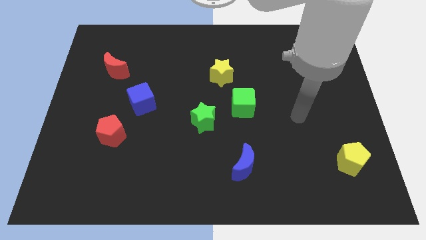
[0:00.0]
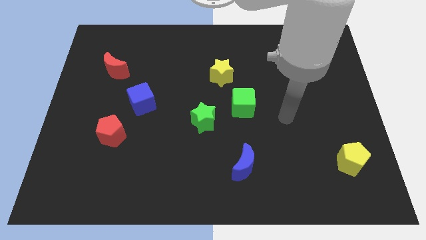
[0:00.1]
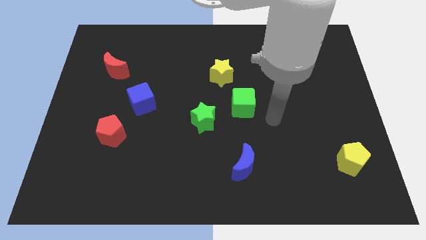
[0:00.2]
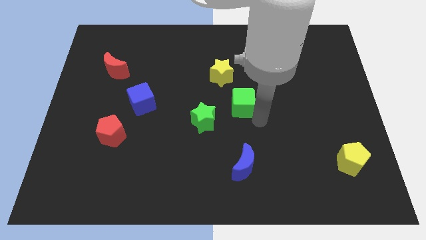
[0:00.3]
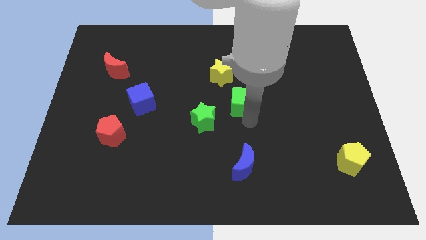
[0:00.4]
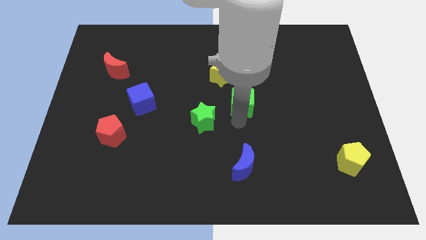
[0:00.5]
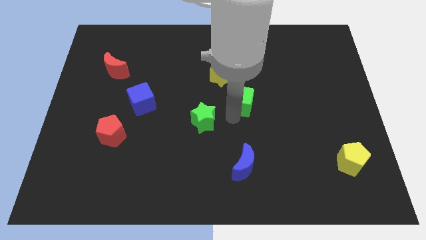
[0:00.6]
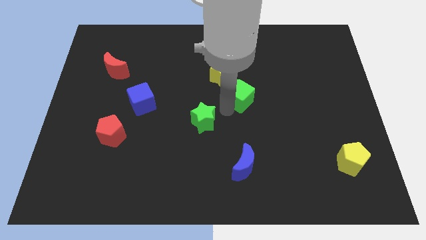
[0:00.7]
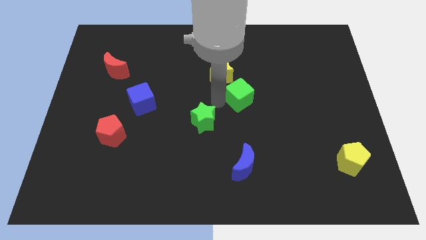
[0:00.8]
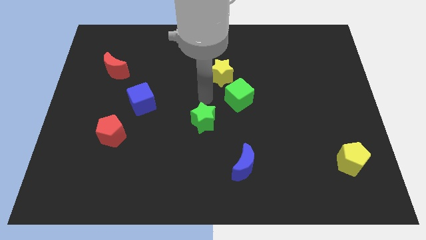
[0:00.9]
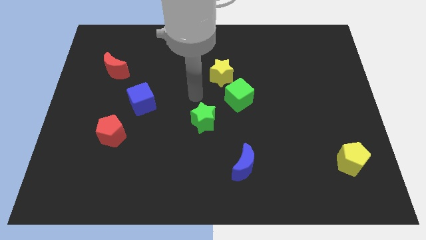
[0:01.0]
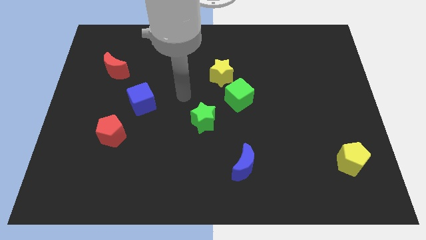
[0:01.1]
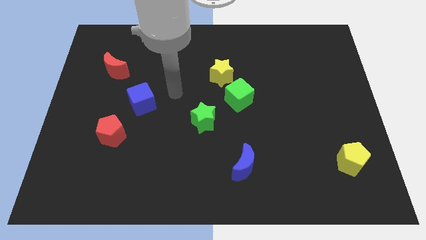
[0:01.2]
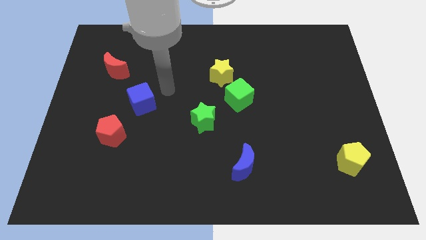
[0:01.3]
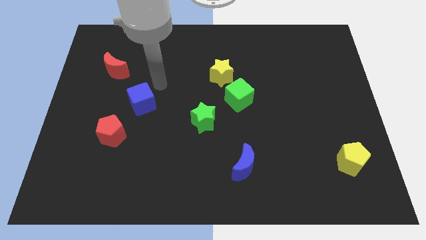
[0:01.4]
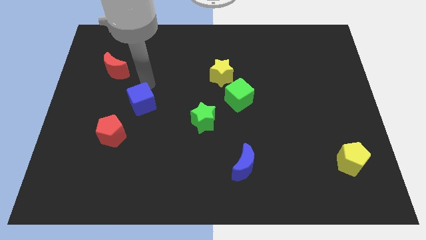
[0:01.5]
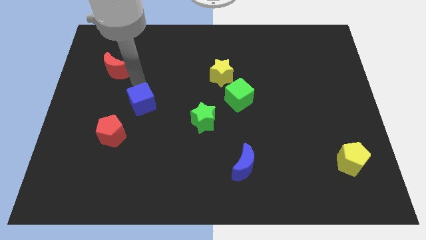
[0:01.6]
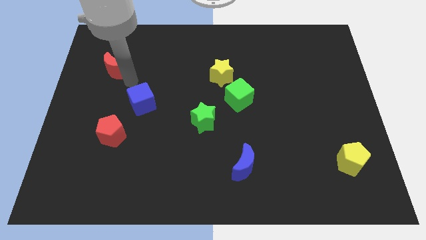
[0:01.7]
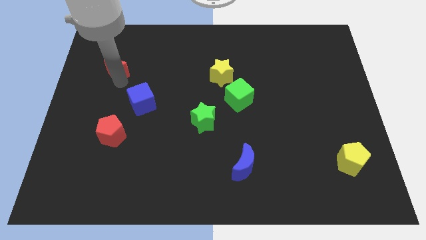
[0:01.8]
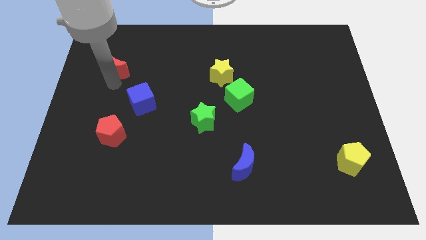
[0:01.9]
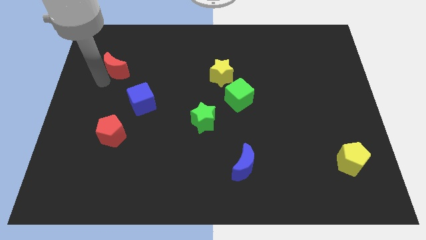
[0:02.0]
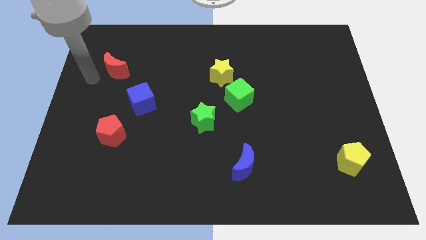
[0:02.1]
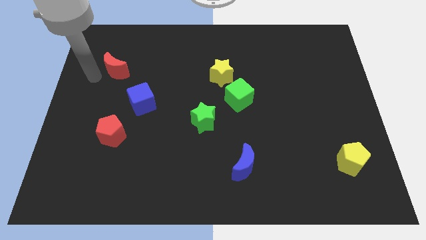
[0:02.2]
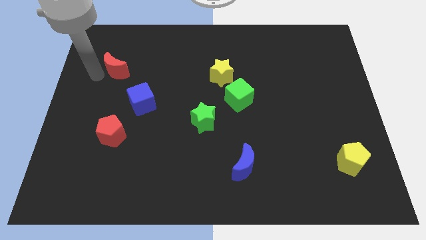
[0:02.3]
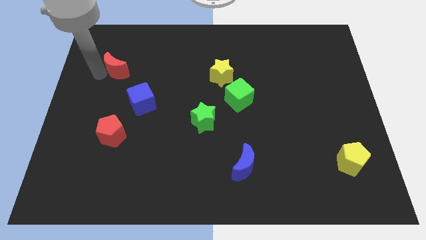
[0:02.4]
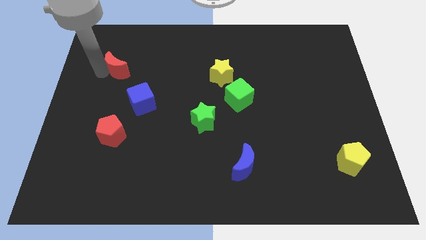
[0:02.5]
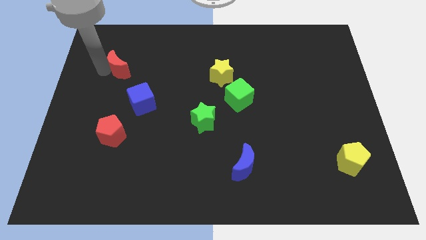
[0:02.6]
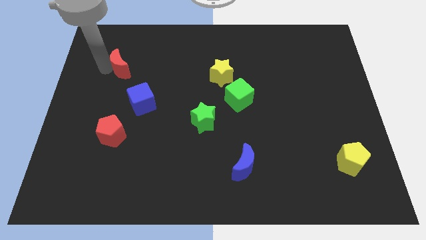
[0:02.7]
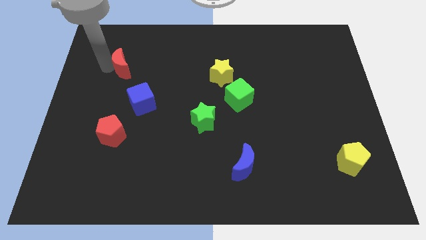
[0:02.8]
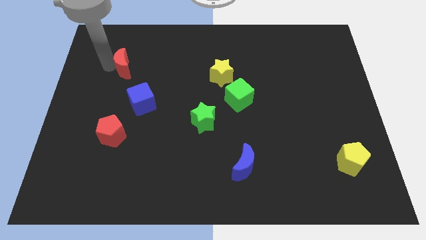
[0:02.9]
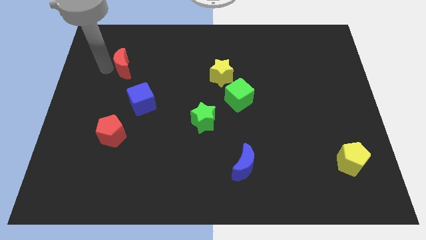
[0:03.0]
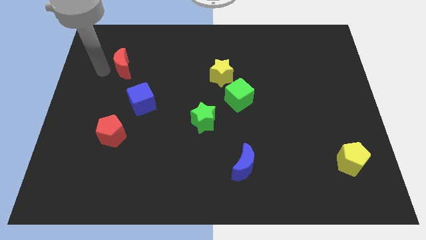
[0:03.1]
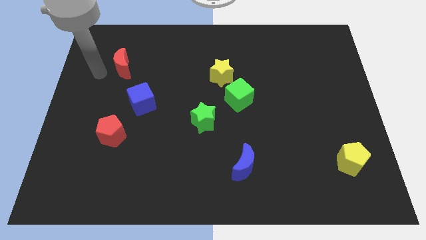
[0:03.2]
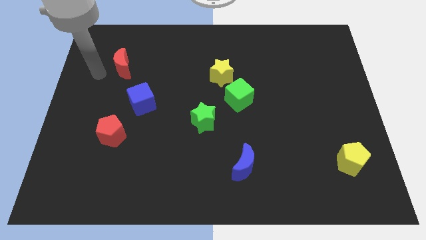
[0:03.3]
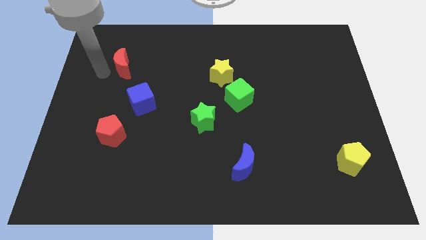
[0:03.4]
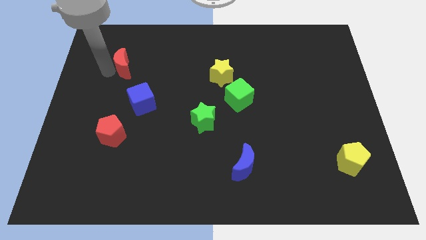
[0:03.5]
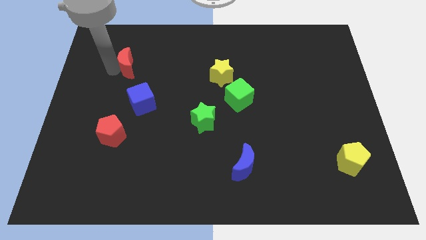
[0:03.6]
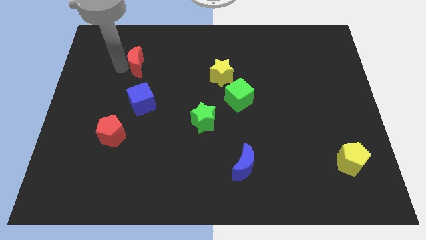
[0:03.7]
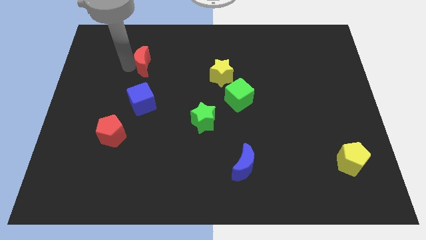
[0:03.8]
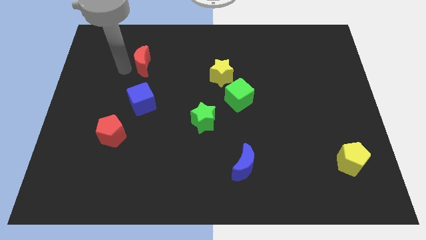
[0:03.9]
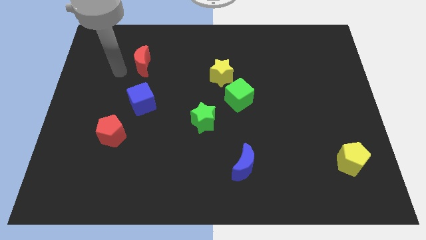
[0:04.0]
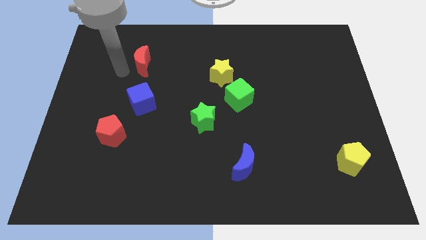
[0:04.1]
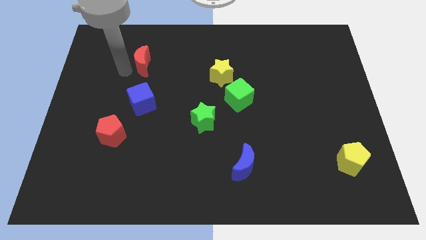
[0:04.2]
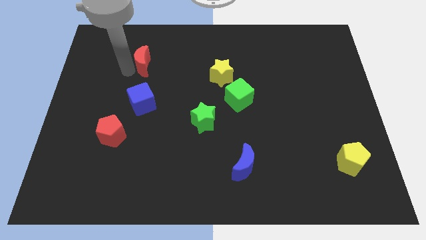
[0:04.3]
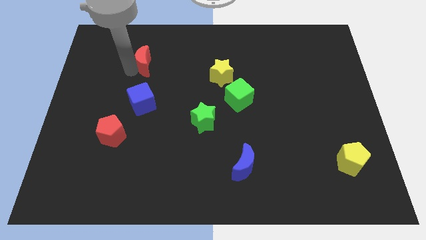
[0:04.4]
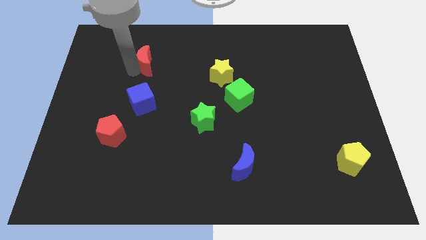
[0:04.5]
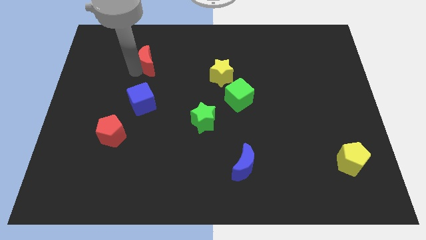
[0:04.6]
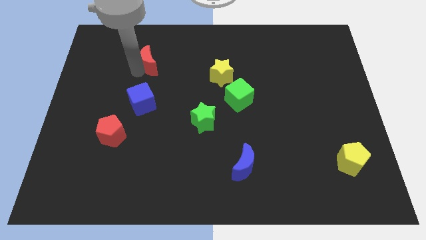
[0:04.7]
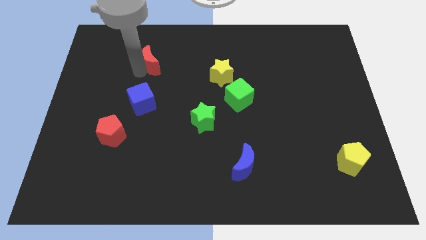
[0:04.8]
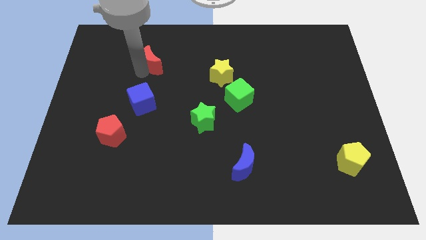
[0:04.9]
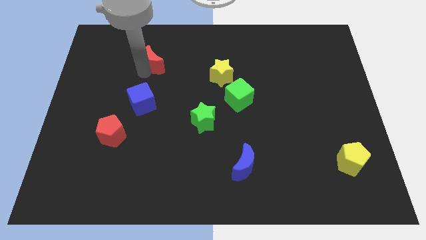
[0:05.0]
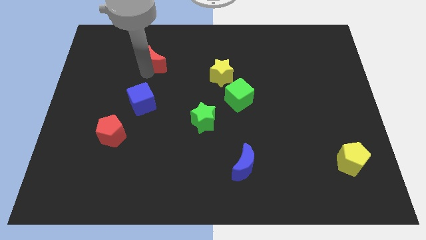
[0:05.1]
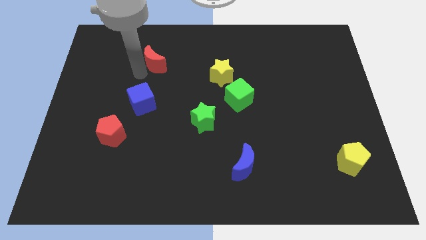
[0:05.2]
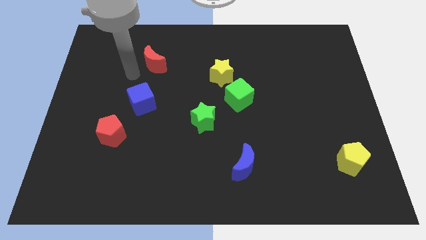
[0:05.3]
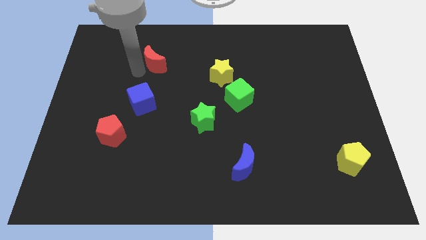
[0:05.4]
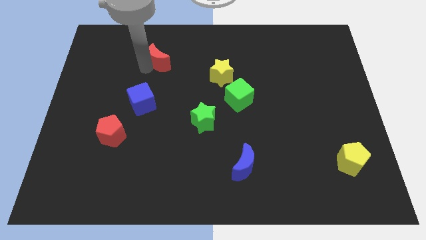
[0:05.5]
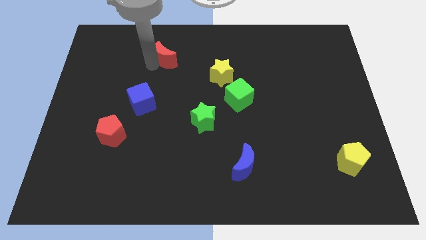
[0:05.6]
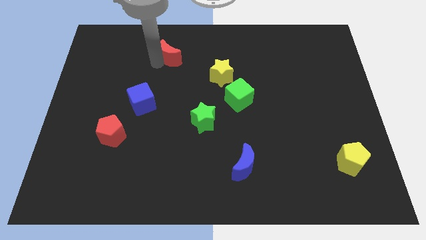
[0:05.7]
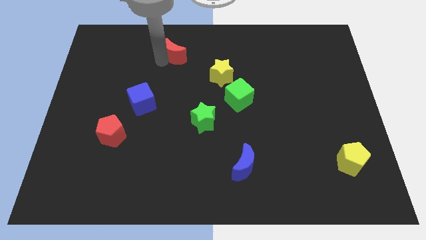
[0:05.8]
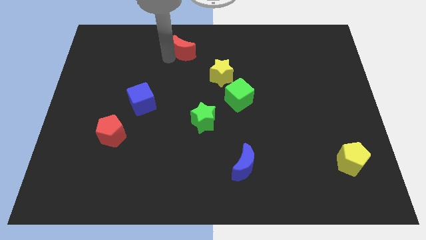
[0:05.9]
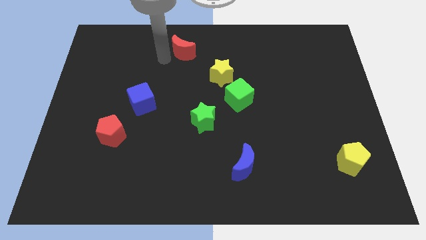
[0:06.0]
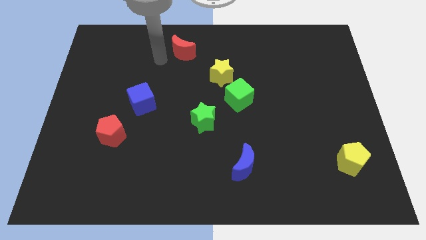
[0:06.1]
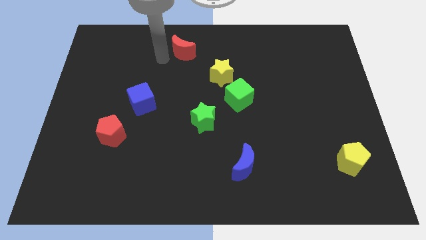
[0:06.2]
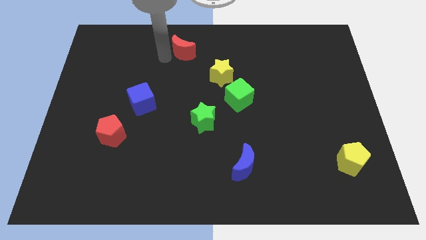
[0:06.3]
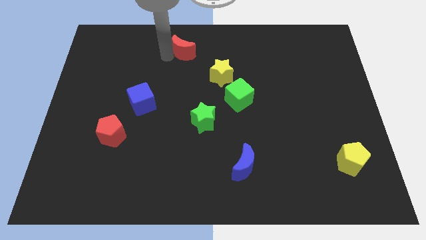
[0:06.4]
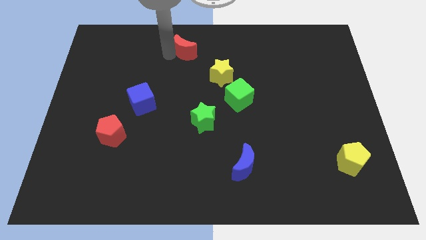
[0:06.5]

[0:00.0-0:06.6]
slide the red moon to the top
